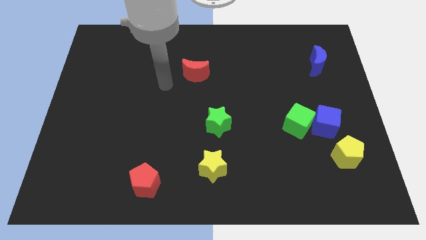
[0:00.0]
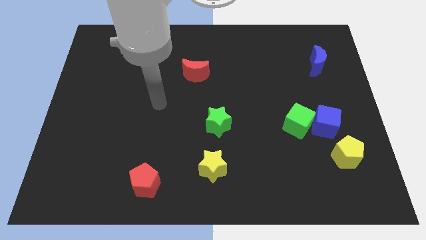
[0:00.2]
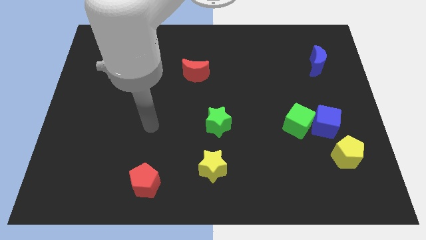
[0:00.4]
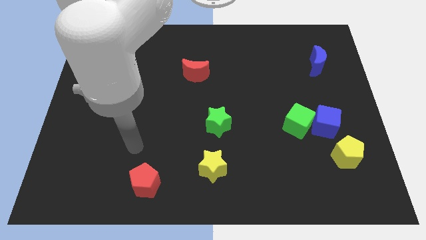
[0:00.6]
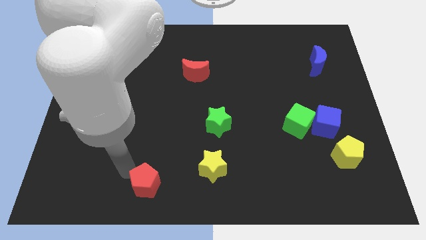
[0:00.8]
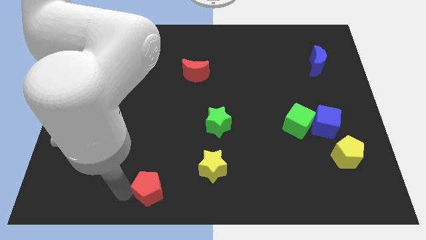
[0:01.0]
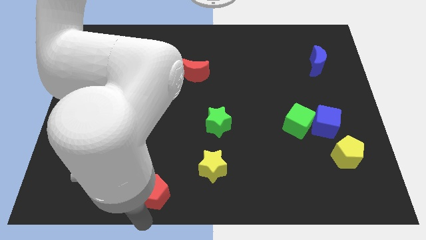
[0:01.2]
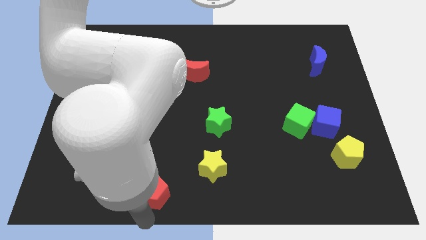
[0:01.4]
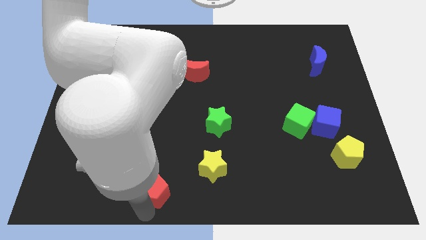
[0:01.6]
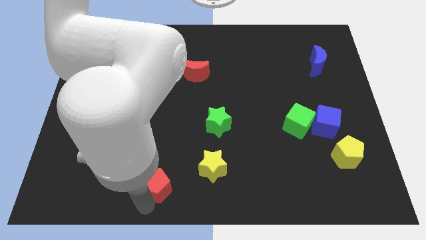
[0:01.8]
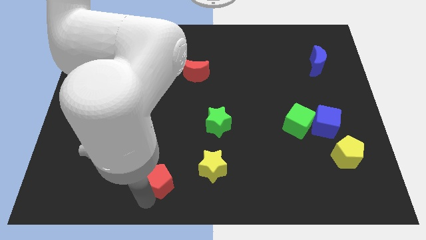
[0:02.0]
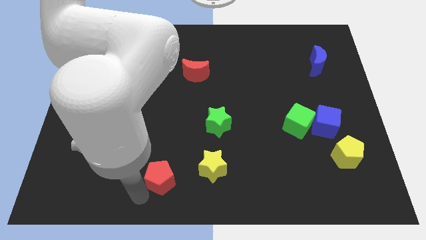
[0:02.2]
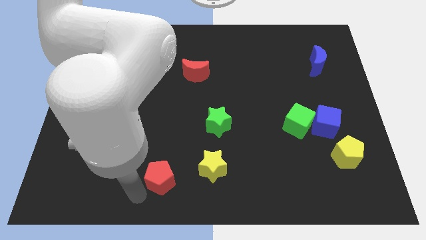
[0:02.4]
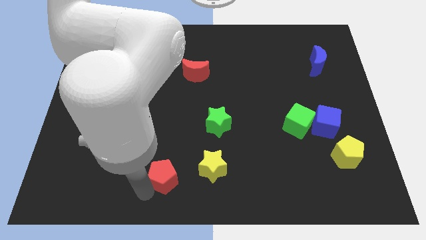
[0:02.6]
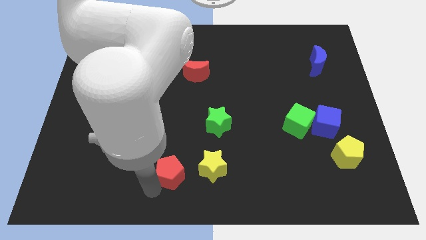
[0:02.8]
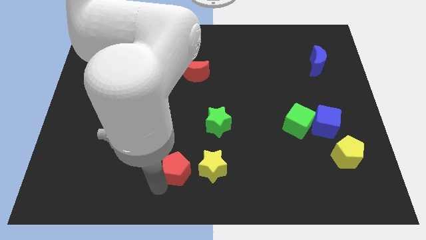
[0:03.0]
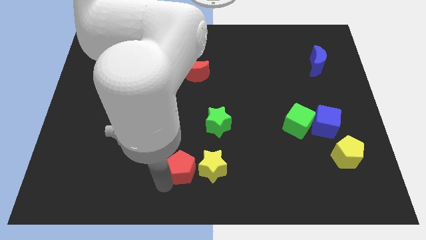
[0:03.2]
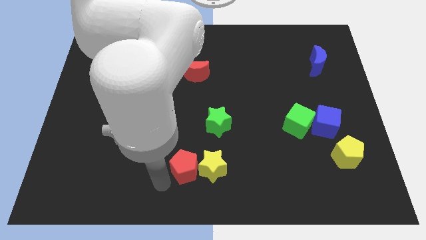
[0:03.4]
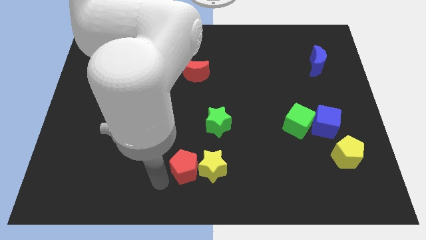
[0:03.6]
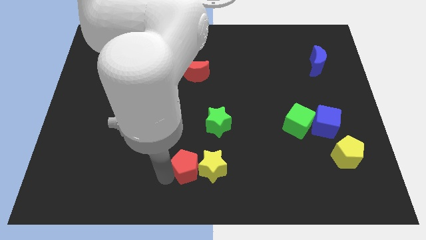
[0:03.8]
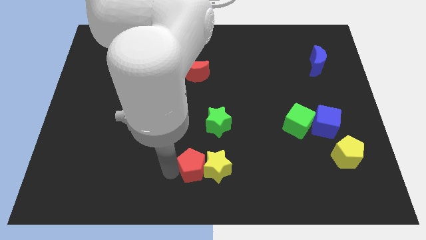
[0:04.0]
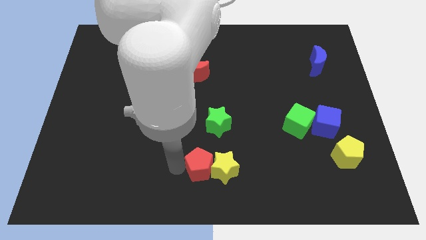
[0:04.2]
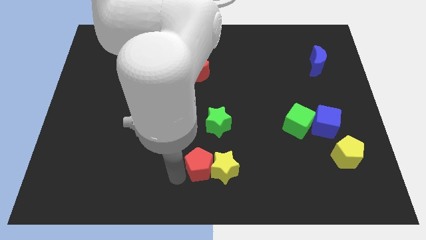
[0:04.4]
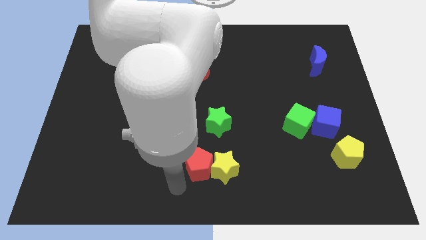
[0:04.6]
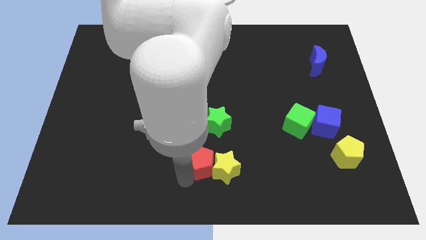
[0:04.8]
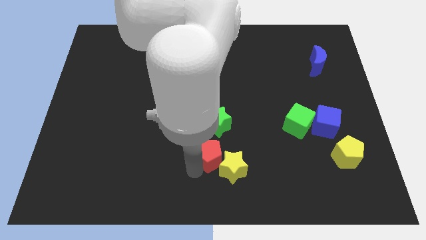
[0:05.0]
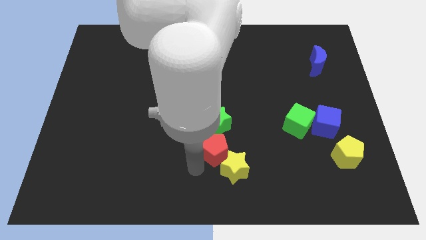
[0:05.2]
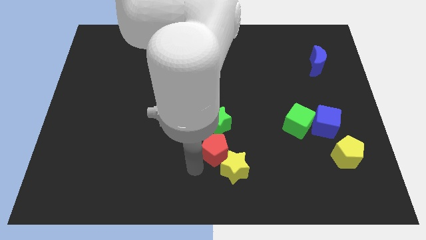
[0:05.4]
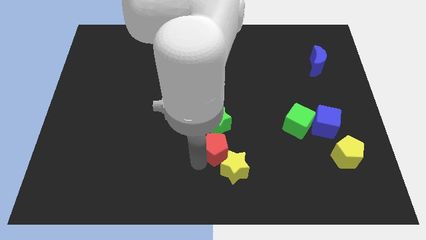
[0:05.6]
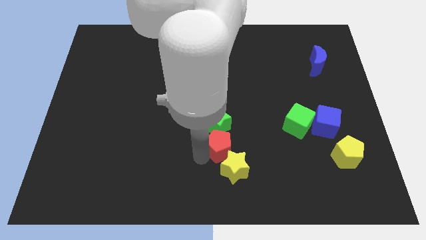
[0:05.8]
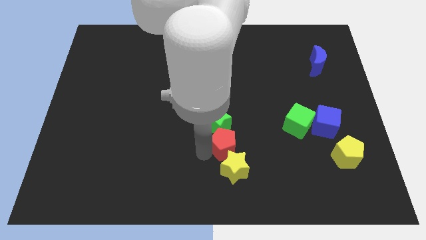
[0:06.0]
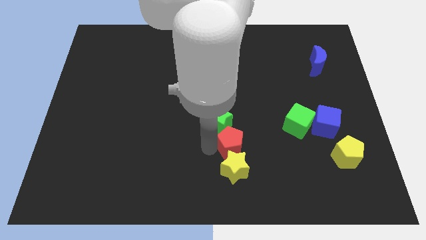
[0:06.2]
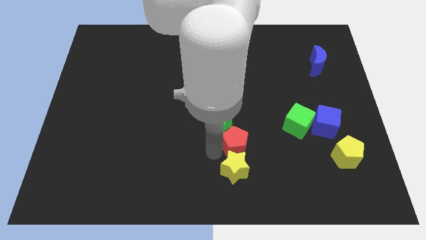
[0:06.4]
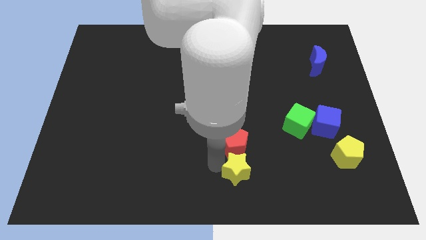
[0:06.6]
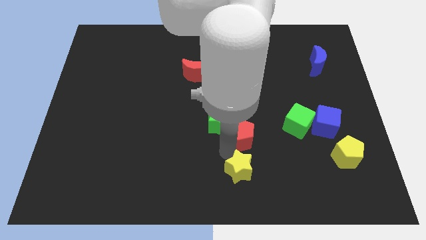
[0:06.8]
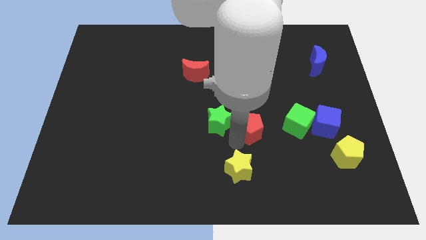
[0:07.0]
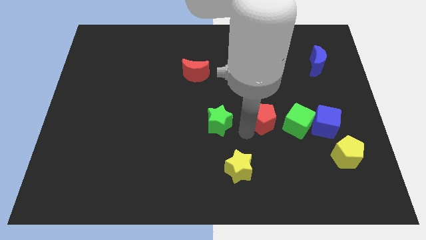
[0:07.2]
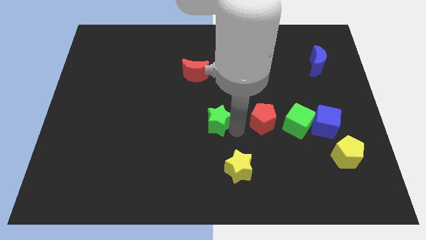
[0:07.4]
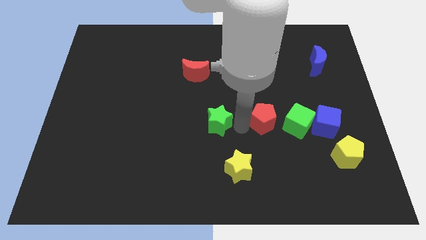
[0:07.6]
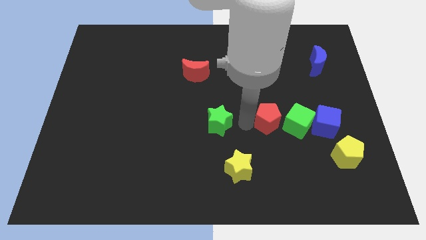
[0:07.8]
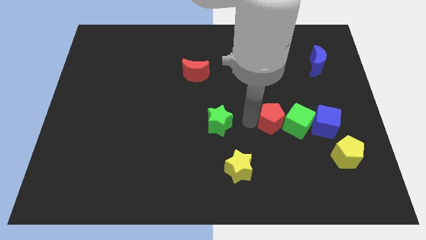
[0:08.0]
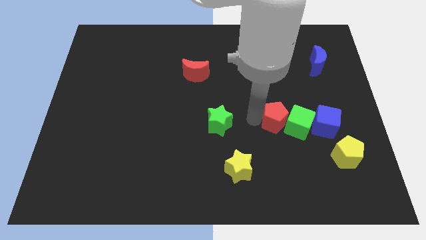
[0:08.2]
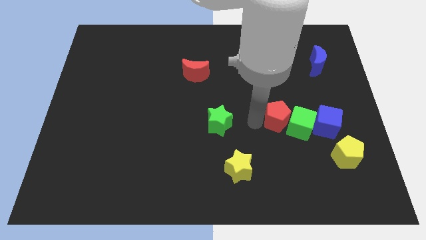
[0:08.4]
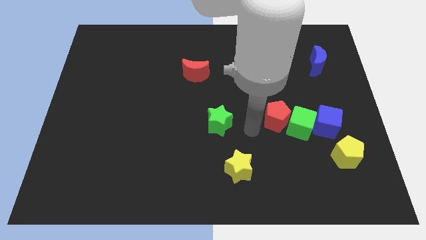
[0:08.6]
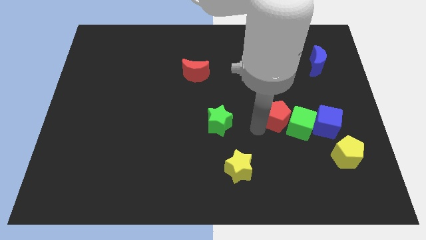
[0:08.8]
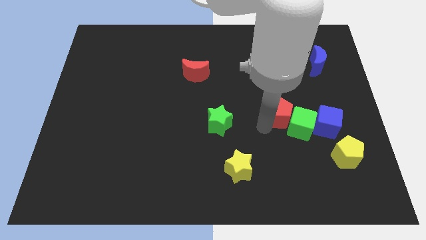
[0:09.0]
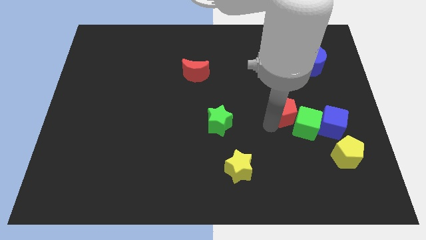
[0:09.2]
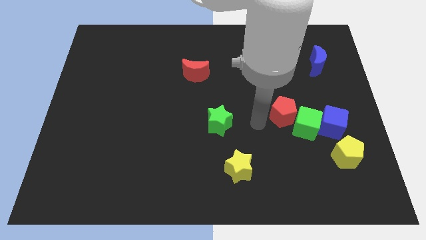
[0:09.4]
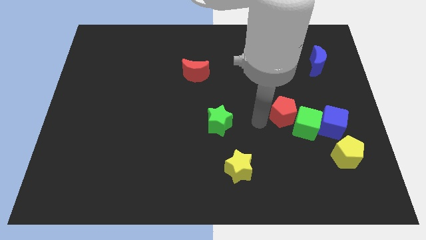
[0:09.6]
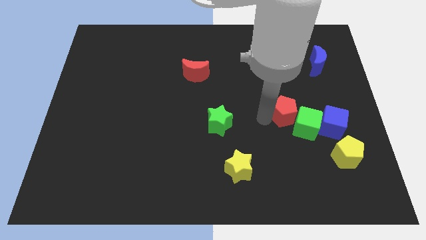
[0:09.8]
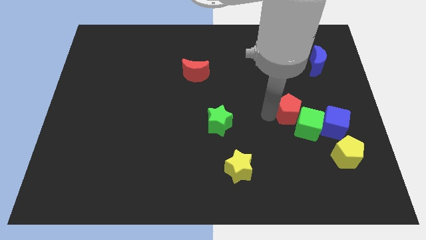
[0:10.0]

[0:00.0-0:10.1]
push the red pentagon to the top left side of the blue cube

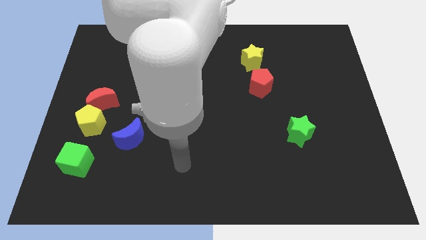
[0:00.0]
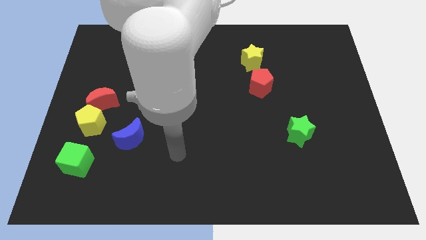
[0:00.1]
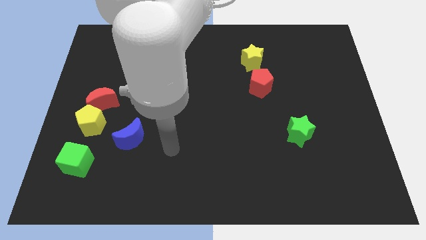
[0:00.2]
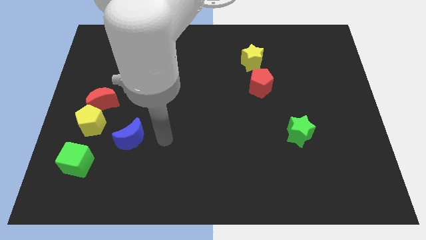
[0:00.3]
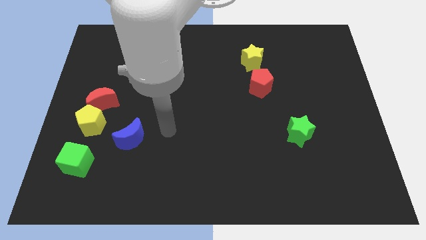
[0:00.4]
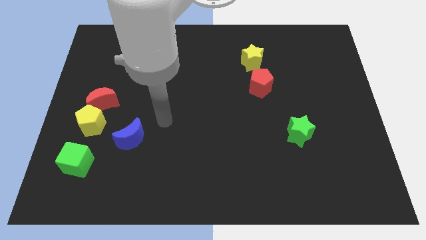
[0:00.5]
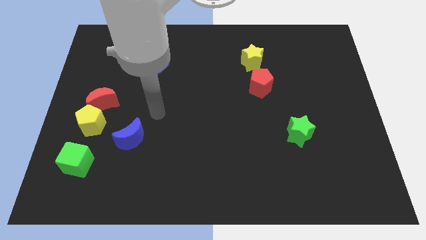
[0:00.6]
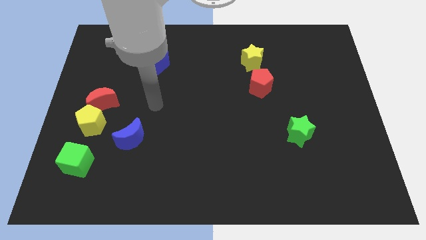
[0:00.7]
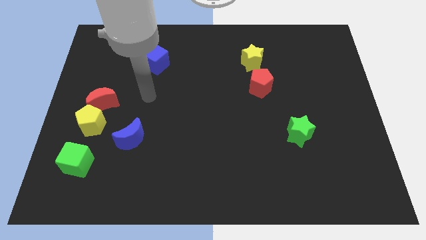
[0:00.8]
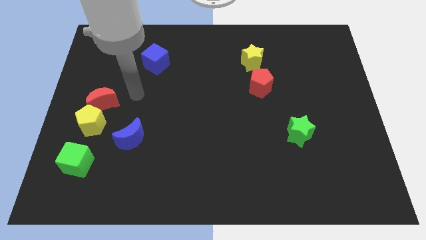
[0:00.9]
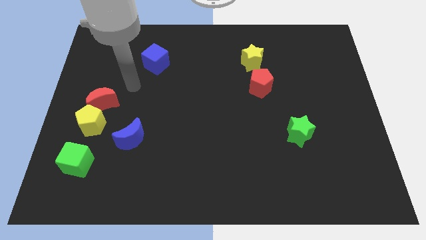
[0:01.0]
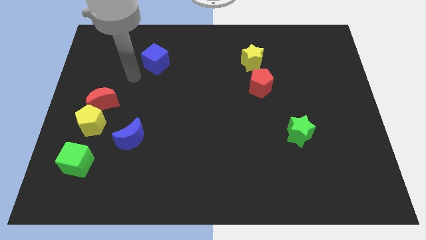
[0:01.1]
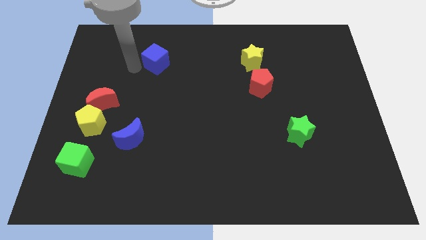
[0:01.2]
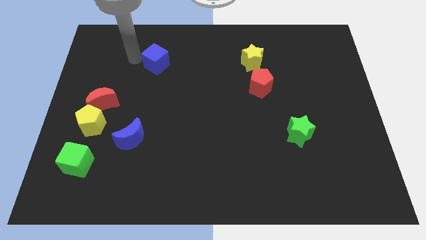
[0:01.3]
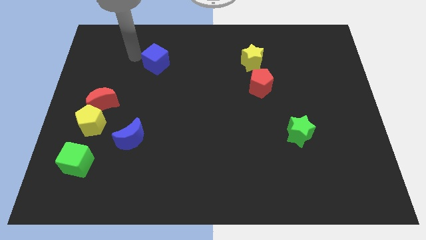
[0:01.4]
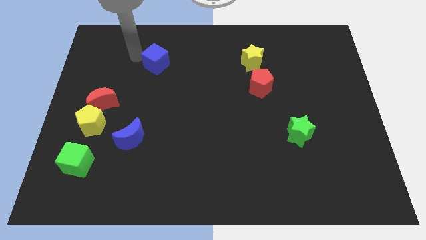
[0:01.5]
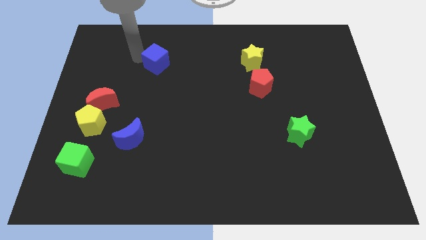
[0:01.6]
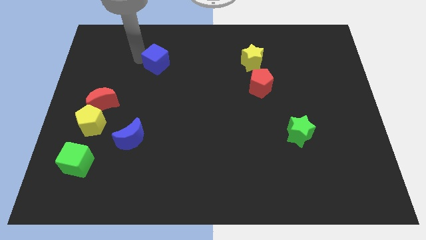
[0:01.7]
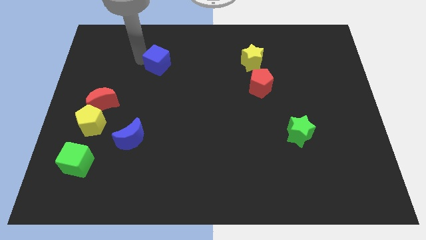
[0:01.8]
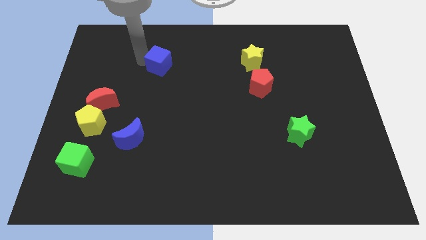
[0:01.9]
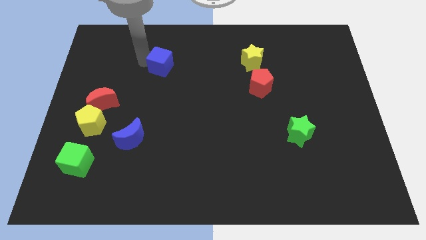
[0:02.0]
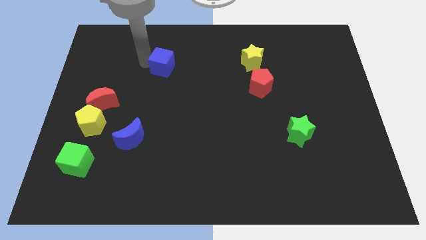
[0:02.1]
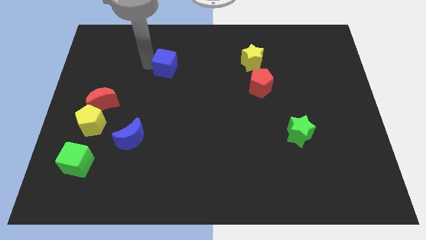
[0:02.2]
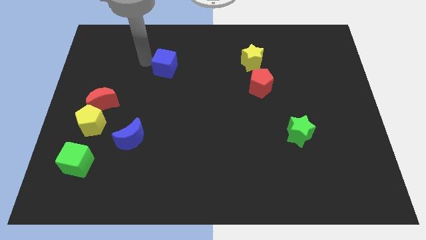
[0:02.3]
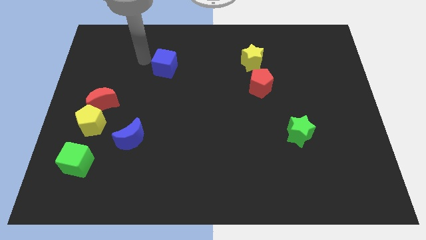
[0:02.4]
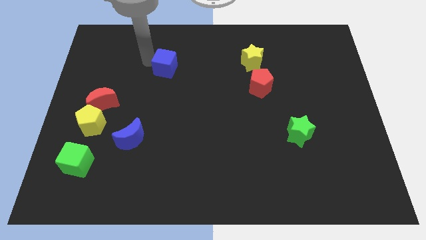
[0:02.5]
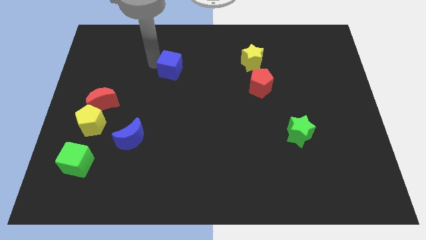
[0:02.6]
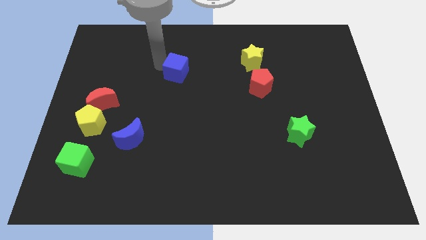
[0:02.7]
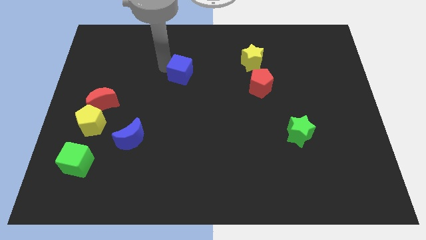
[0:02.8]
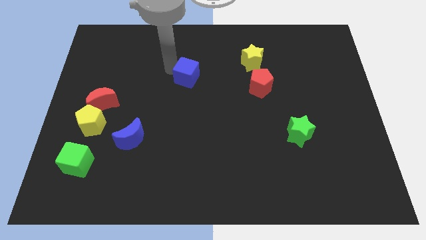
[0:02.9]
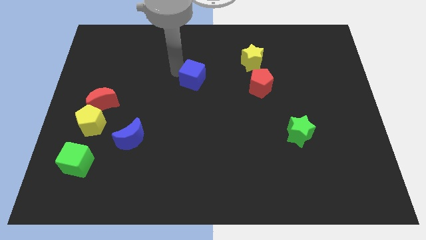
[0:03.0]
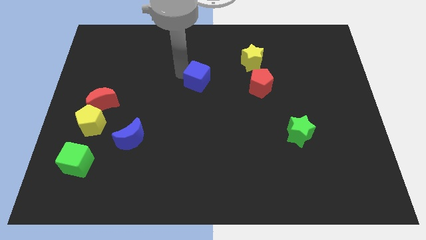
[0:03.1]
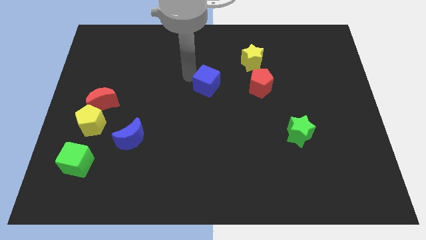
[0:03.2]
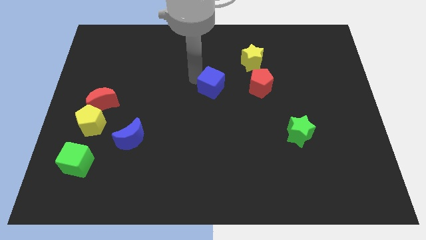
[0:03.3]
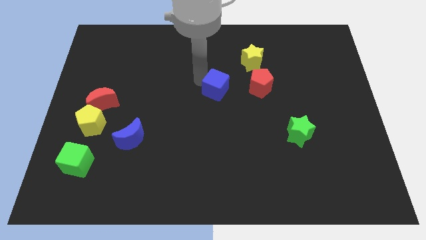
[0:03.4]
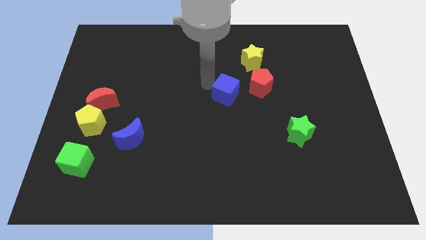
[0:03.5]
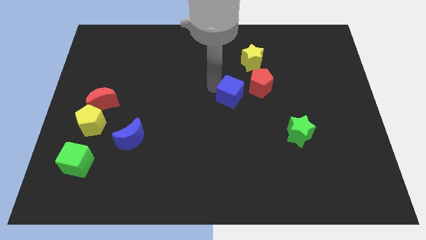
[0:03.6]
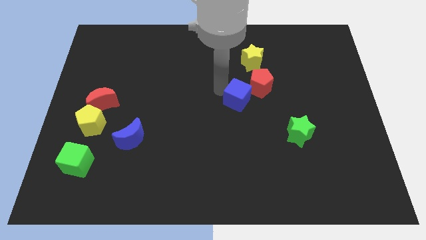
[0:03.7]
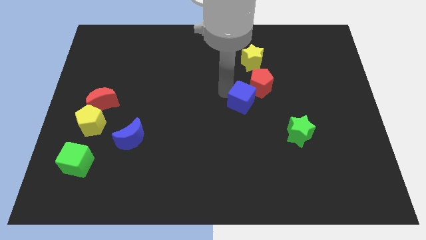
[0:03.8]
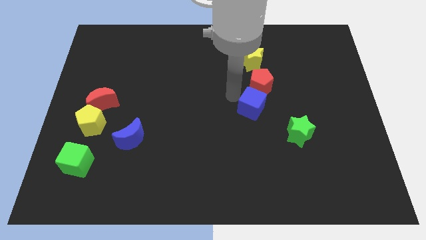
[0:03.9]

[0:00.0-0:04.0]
slide the blue cube diagonally up and to the left of the green star
